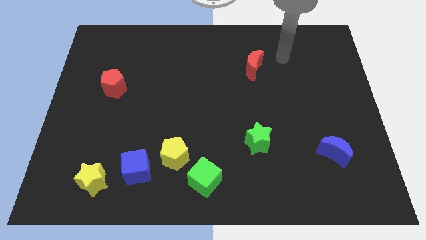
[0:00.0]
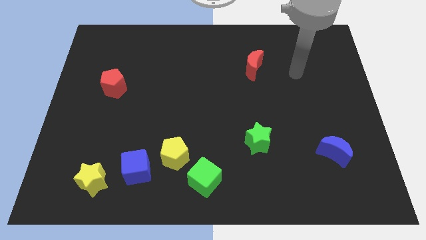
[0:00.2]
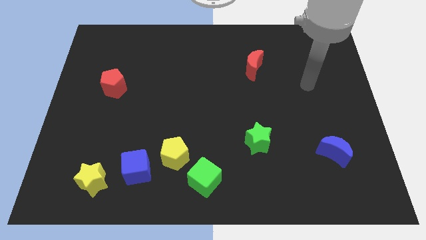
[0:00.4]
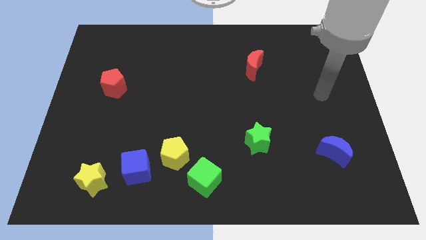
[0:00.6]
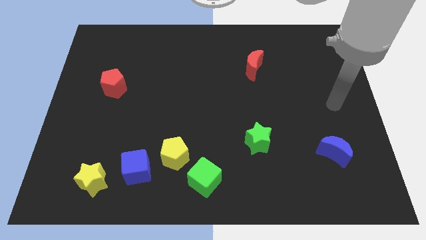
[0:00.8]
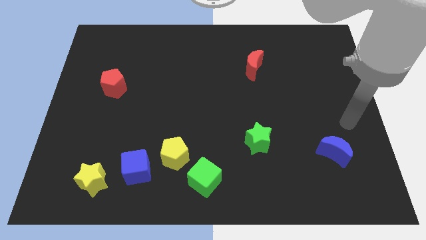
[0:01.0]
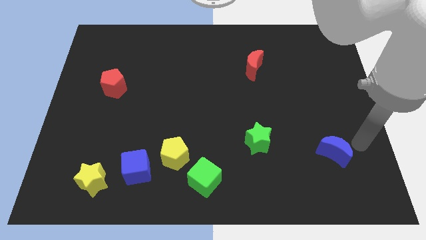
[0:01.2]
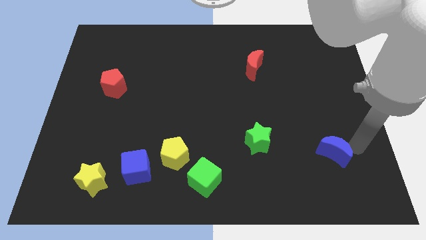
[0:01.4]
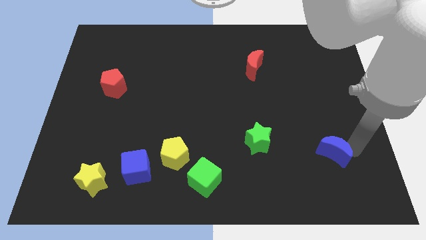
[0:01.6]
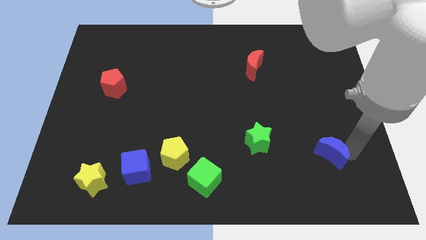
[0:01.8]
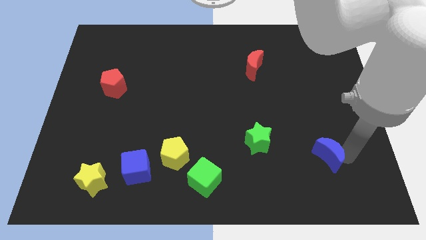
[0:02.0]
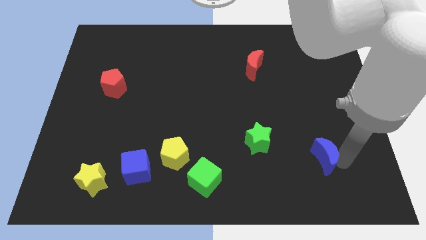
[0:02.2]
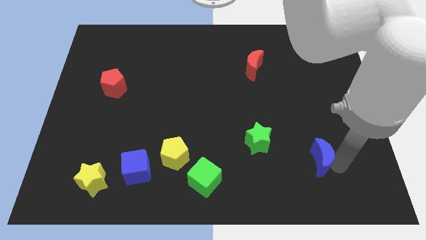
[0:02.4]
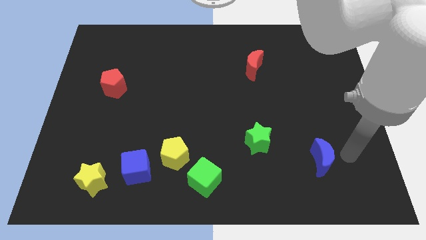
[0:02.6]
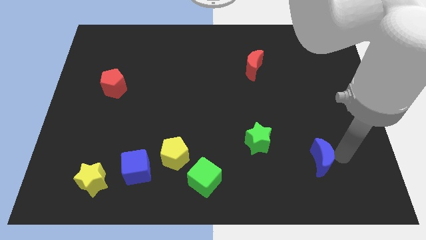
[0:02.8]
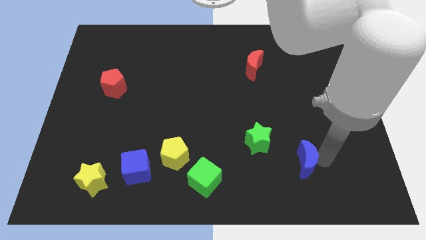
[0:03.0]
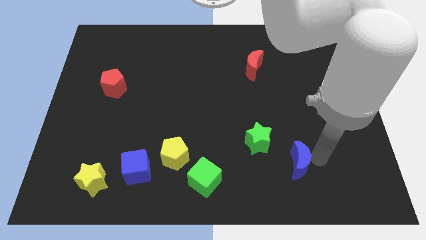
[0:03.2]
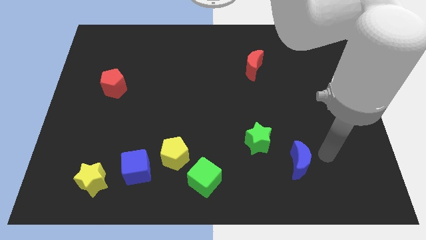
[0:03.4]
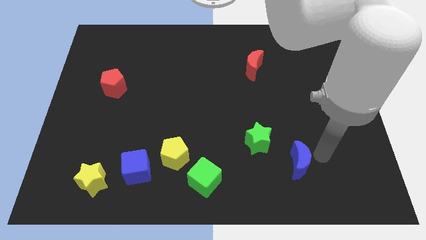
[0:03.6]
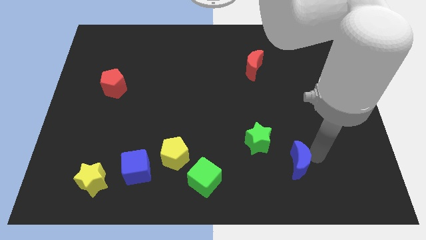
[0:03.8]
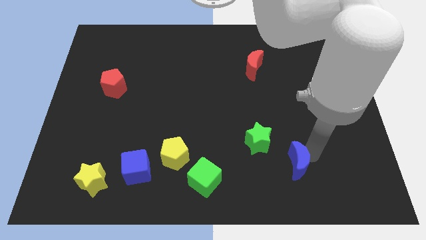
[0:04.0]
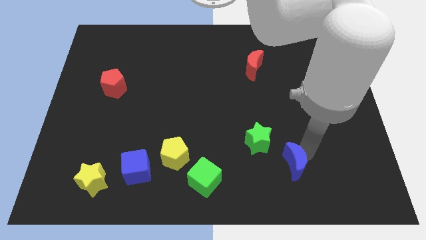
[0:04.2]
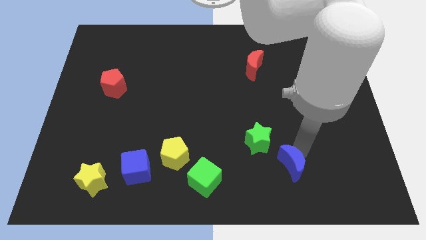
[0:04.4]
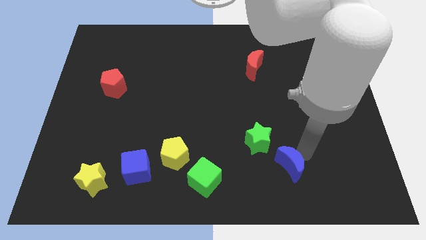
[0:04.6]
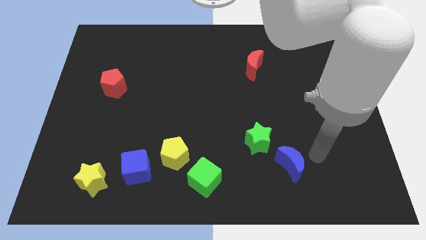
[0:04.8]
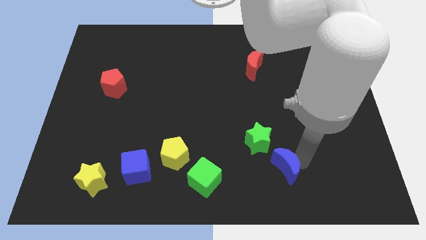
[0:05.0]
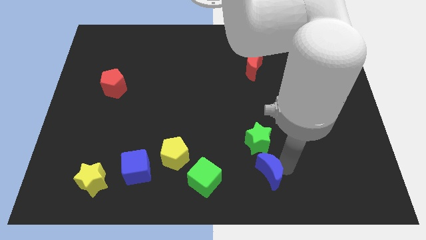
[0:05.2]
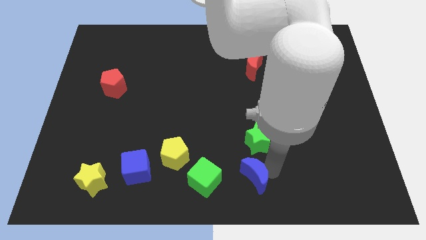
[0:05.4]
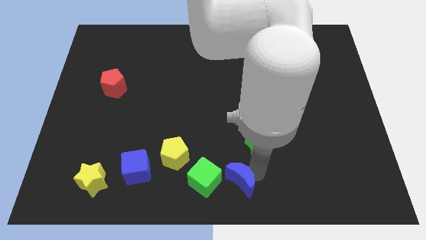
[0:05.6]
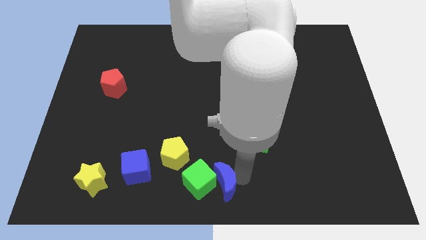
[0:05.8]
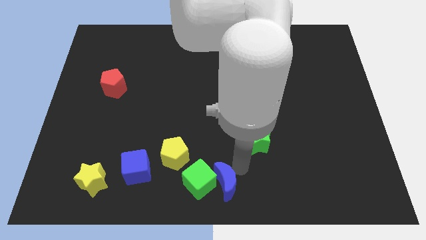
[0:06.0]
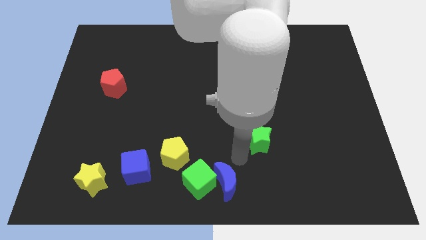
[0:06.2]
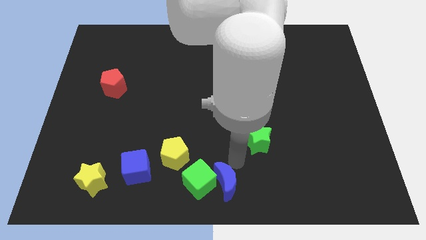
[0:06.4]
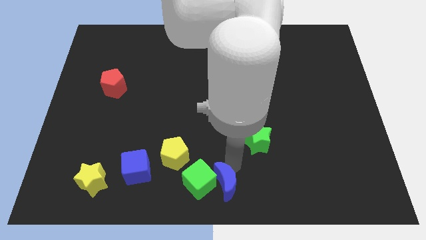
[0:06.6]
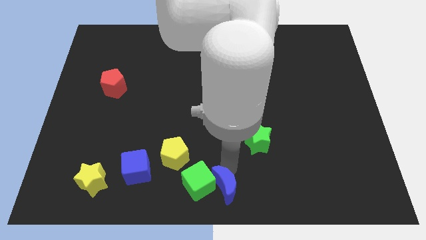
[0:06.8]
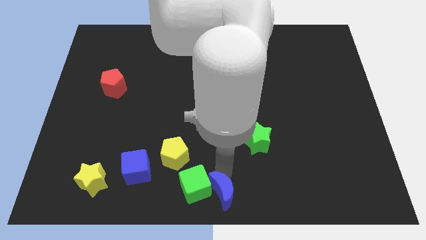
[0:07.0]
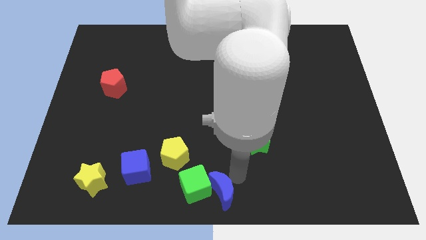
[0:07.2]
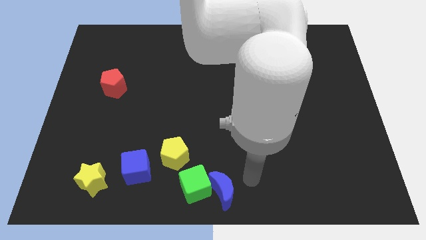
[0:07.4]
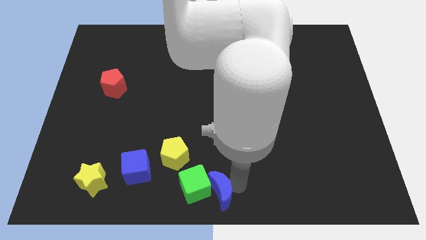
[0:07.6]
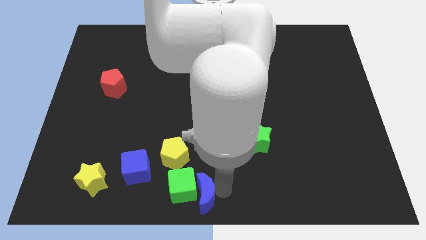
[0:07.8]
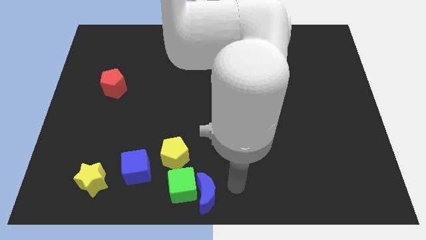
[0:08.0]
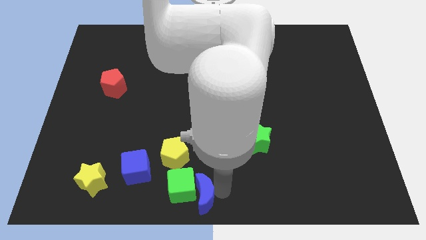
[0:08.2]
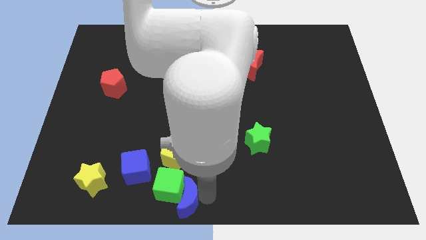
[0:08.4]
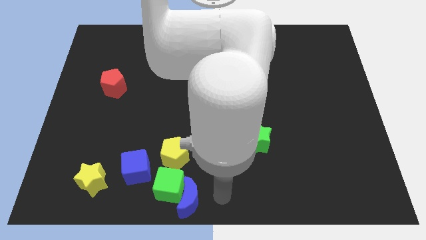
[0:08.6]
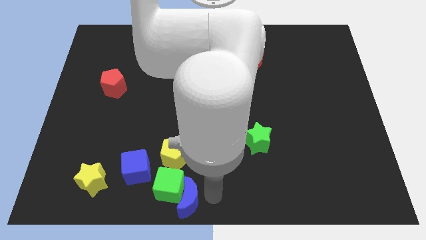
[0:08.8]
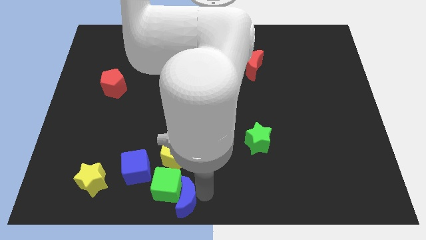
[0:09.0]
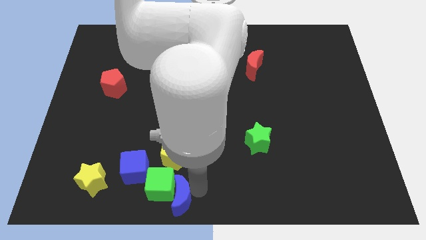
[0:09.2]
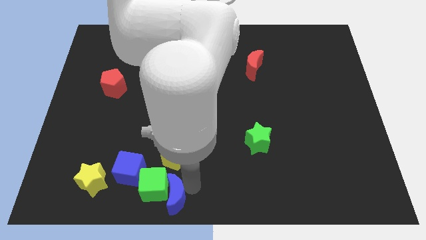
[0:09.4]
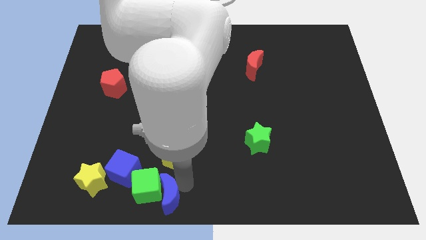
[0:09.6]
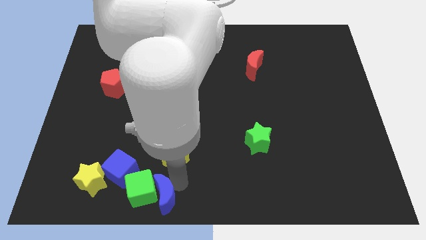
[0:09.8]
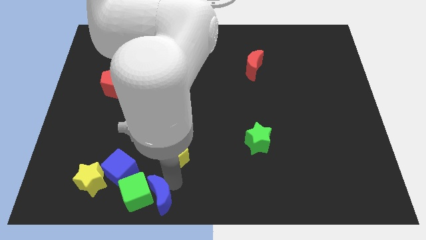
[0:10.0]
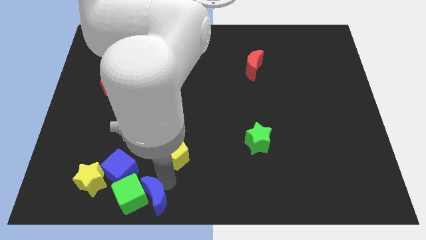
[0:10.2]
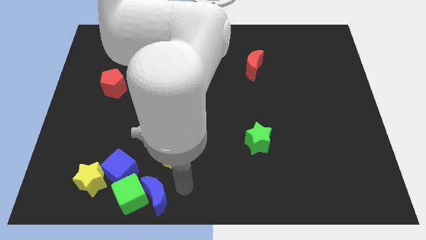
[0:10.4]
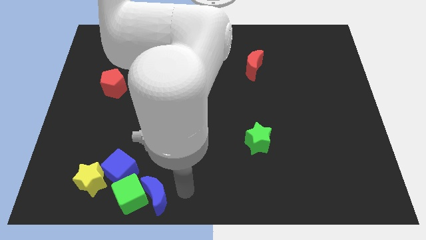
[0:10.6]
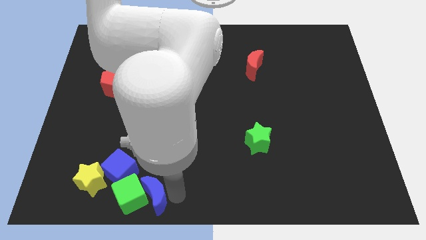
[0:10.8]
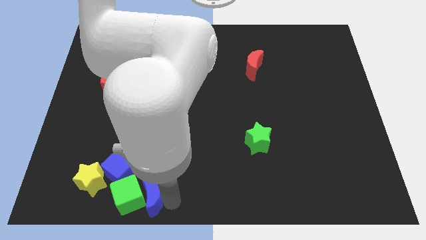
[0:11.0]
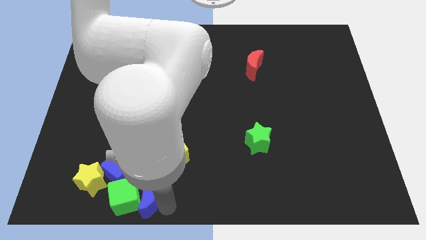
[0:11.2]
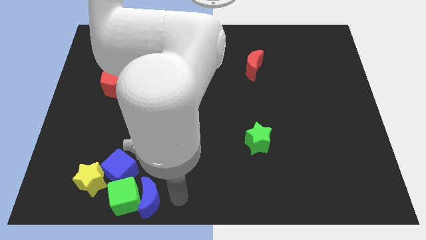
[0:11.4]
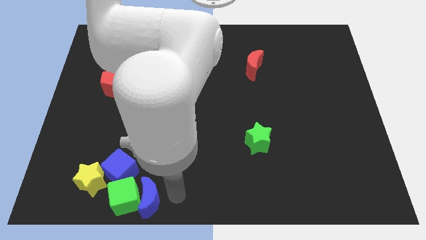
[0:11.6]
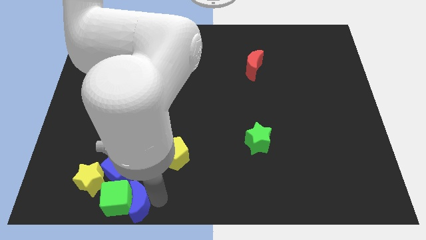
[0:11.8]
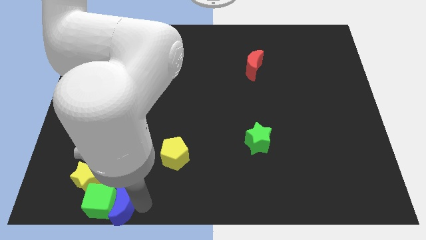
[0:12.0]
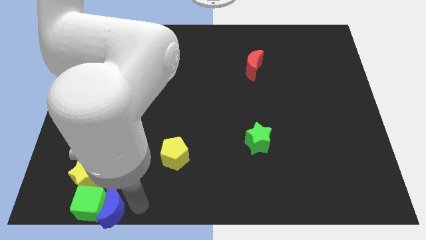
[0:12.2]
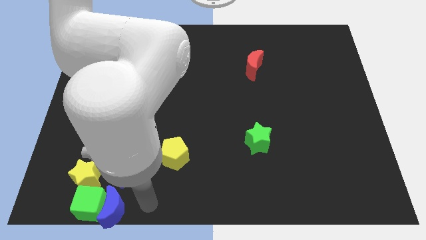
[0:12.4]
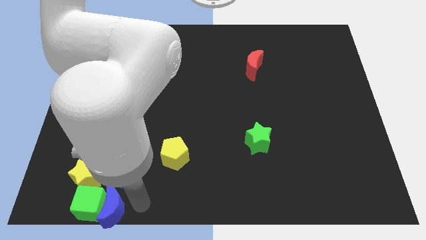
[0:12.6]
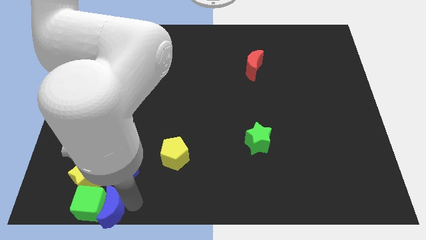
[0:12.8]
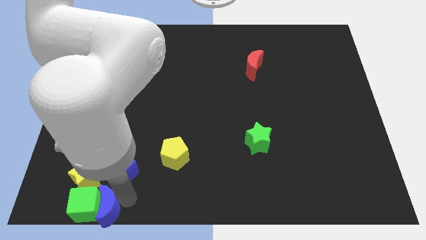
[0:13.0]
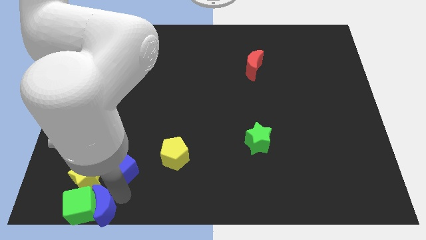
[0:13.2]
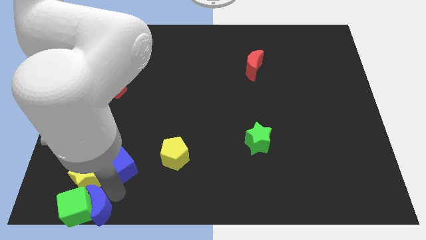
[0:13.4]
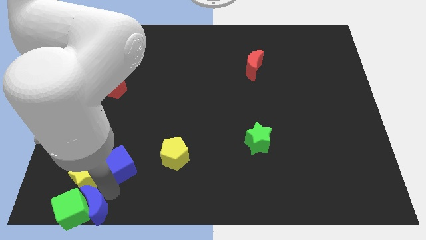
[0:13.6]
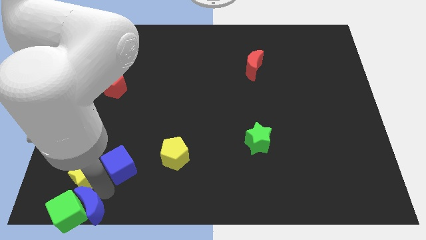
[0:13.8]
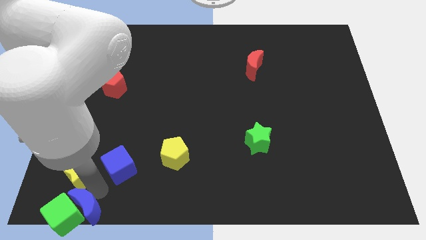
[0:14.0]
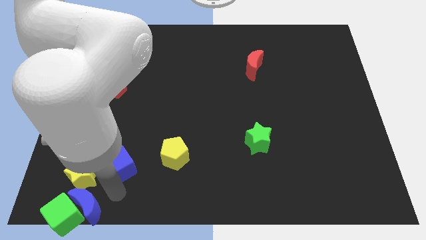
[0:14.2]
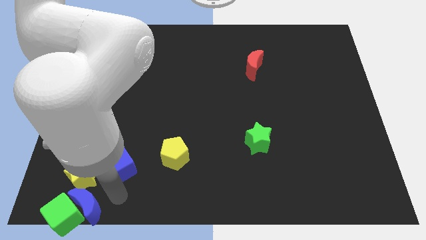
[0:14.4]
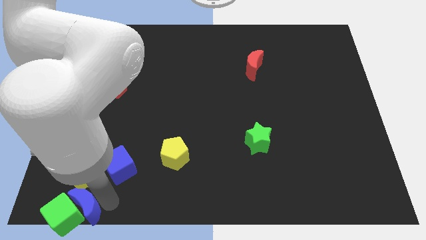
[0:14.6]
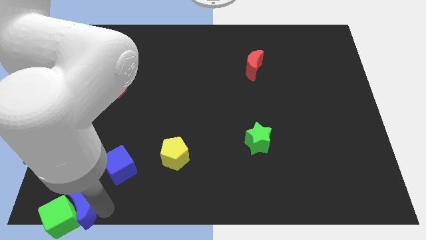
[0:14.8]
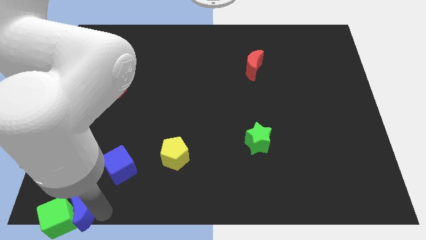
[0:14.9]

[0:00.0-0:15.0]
put the blue moon to the bottom left
